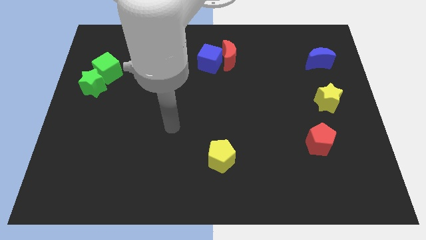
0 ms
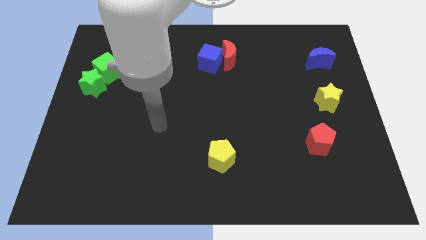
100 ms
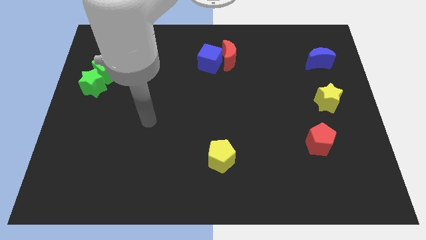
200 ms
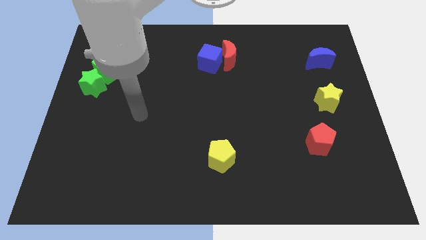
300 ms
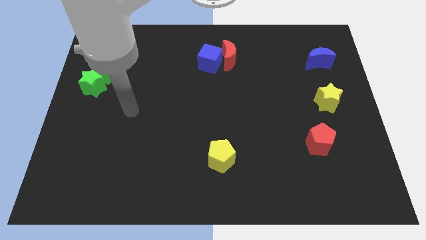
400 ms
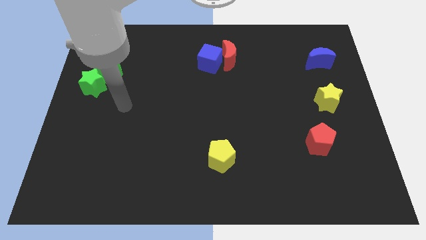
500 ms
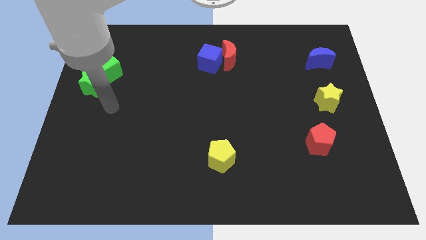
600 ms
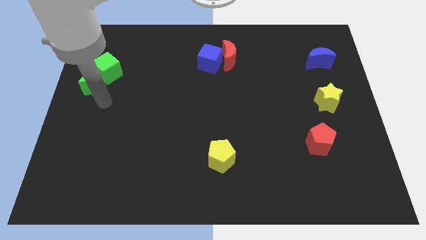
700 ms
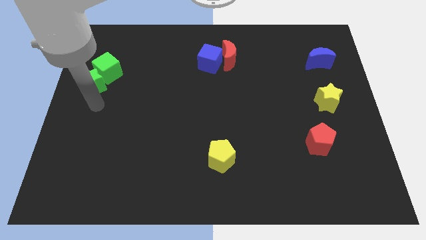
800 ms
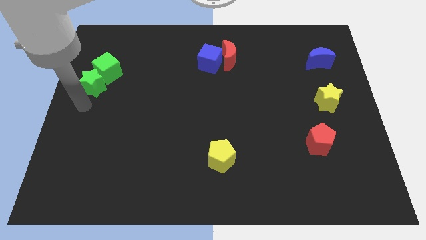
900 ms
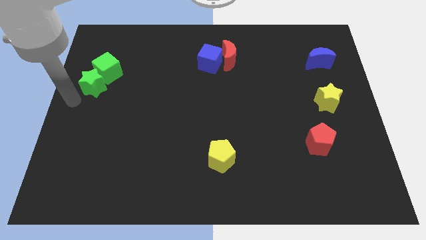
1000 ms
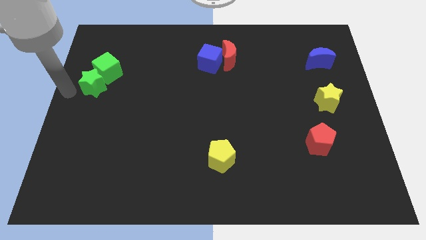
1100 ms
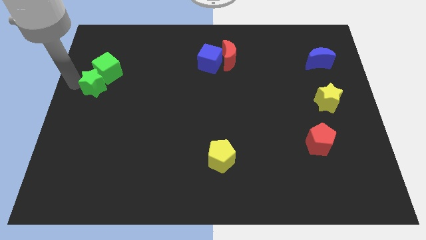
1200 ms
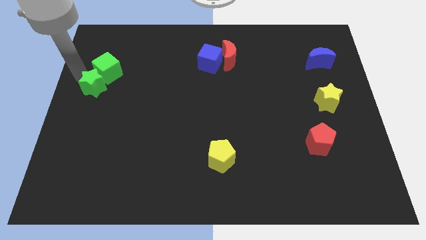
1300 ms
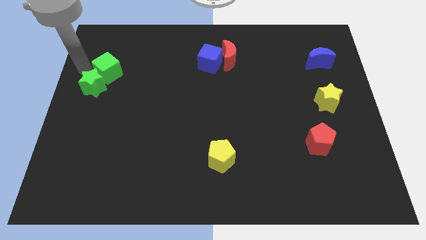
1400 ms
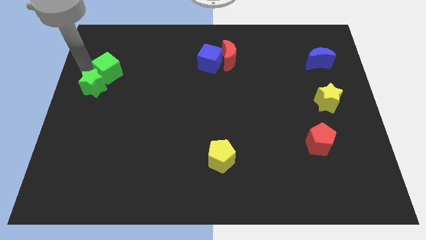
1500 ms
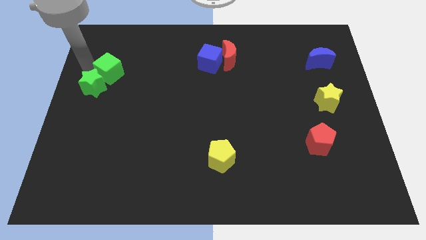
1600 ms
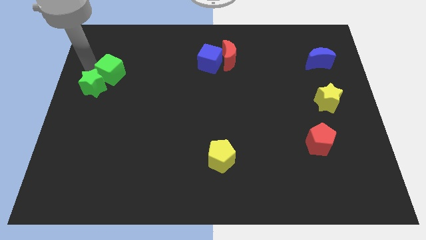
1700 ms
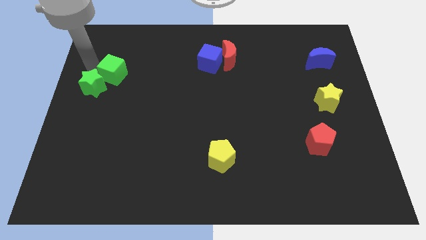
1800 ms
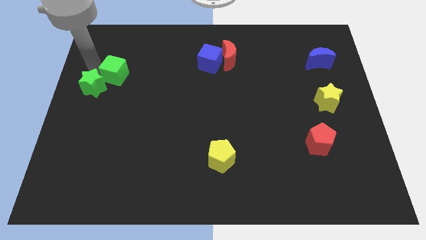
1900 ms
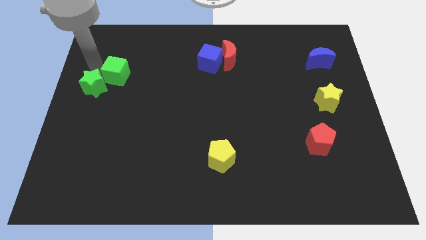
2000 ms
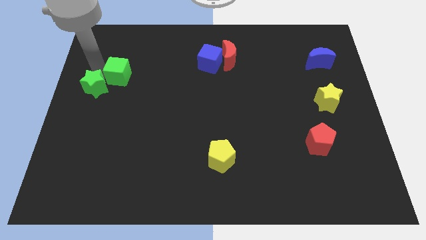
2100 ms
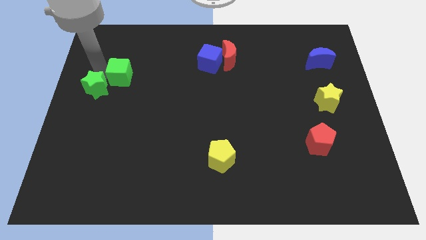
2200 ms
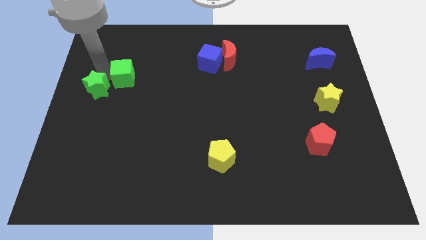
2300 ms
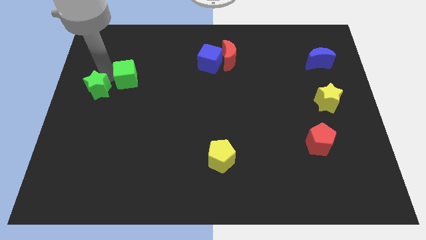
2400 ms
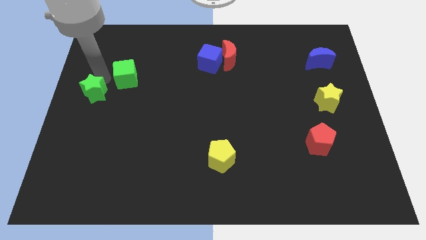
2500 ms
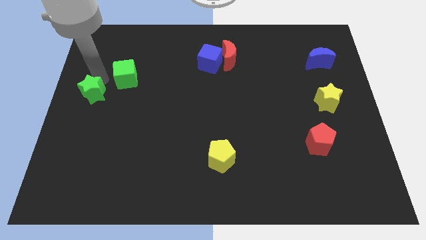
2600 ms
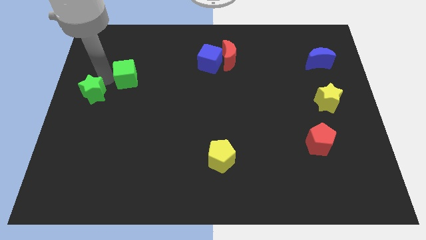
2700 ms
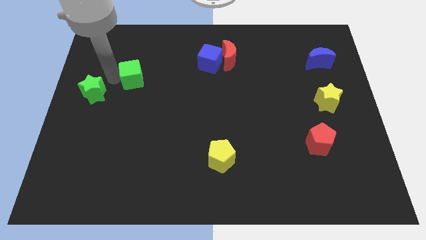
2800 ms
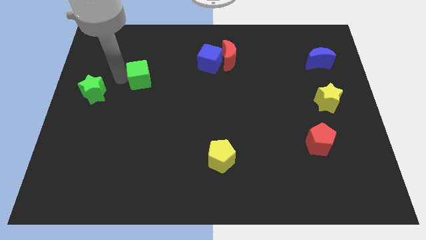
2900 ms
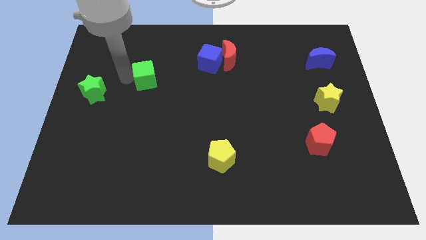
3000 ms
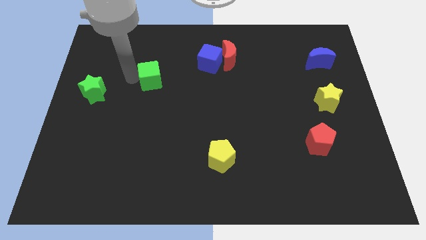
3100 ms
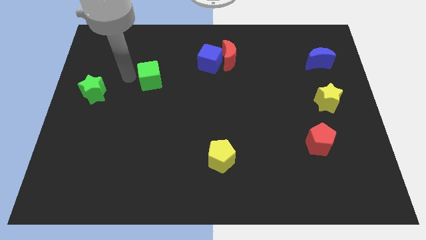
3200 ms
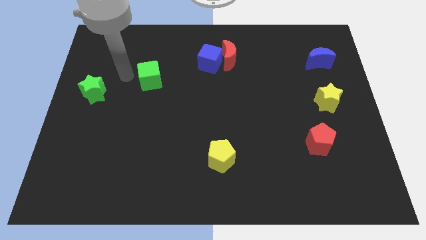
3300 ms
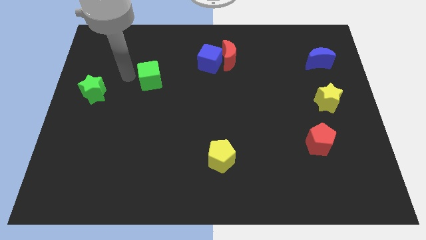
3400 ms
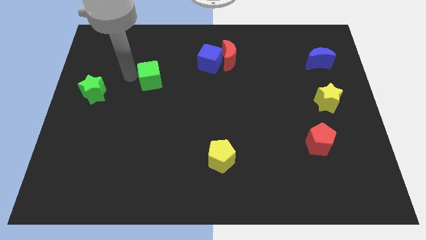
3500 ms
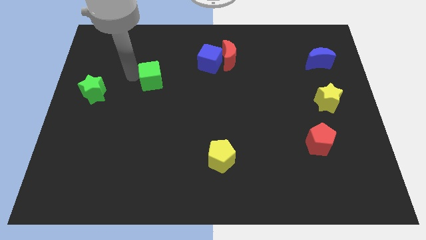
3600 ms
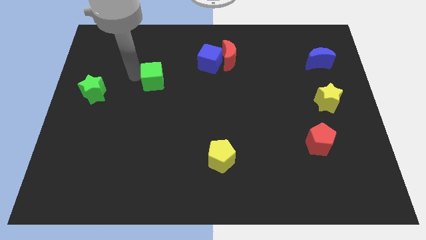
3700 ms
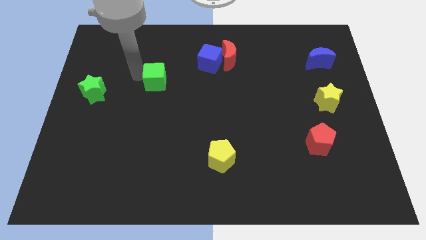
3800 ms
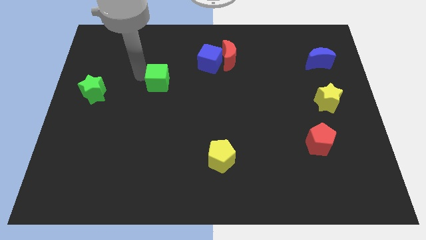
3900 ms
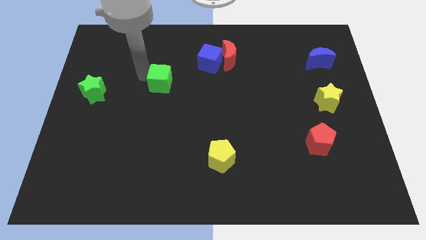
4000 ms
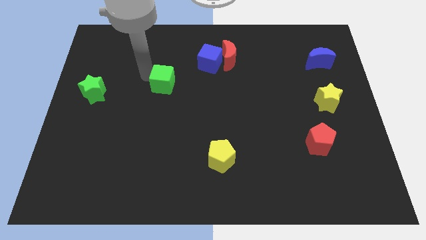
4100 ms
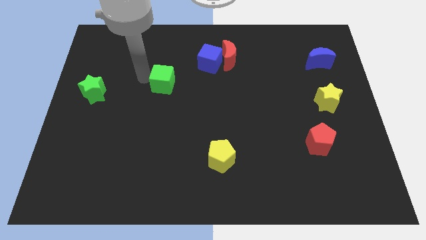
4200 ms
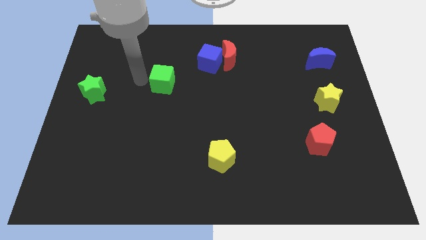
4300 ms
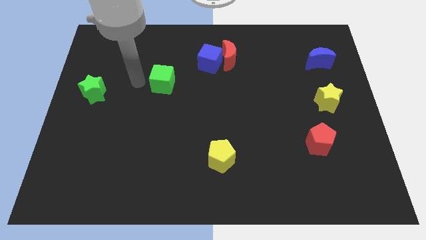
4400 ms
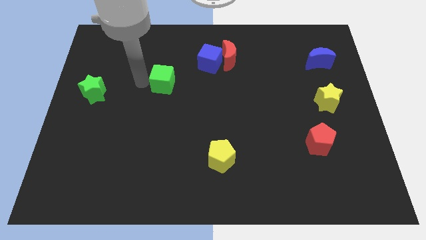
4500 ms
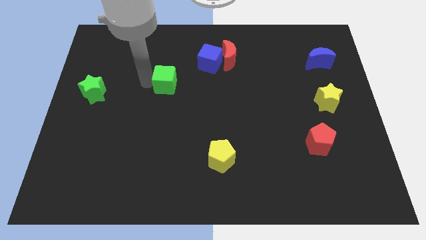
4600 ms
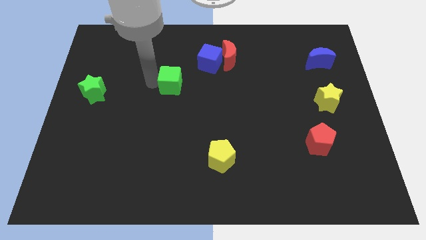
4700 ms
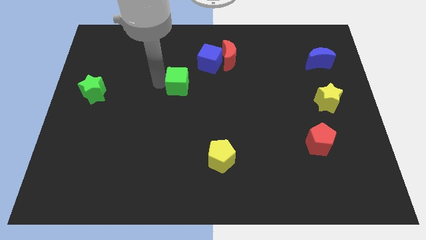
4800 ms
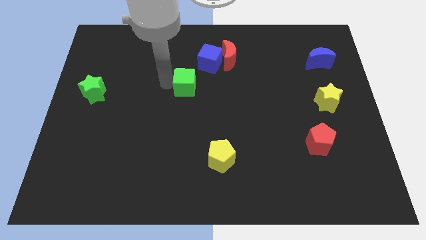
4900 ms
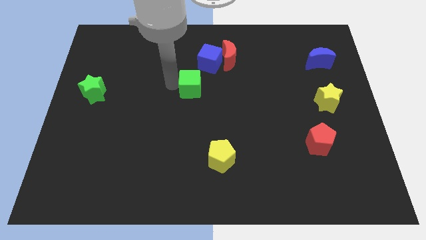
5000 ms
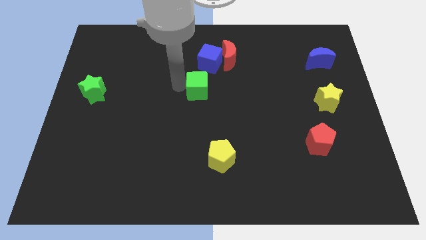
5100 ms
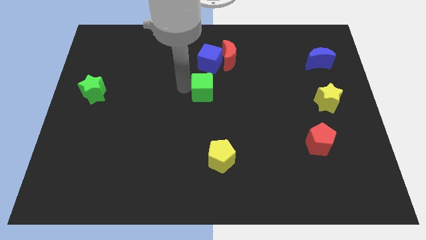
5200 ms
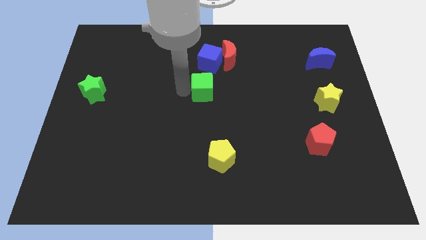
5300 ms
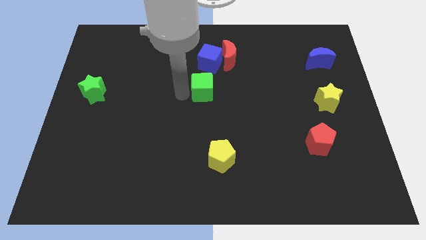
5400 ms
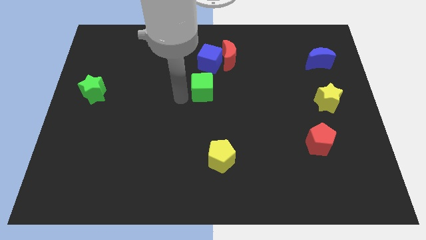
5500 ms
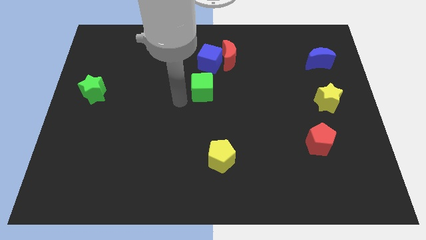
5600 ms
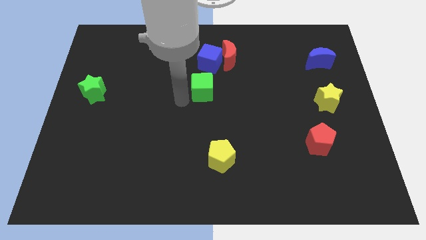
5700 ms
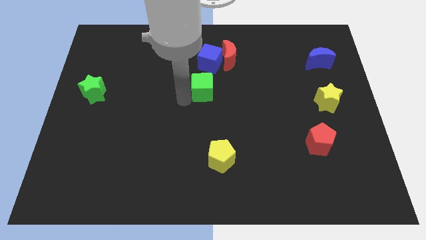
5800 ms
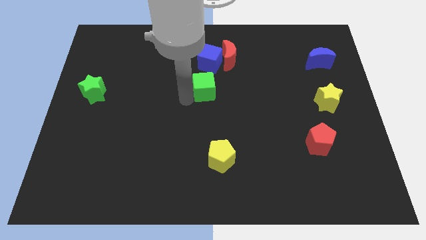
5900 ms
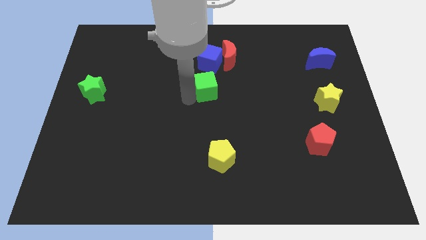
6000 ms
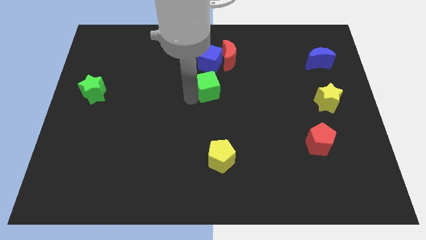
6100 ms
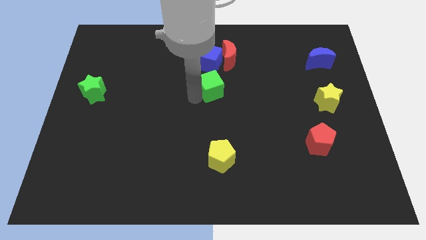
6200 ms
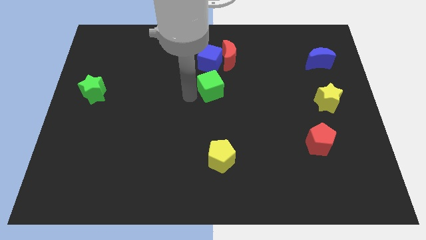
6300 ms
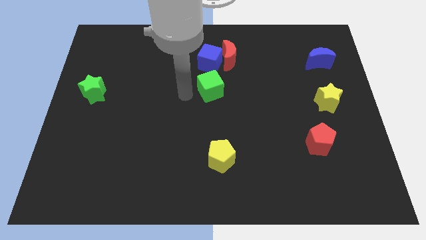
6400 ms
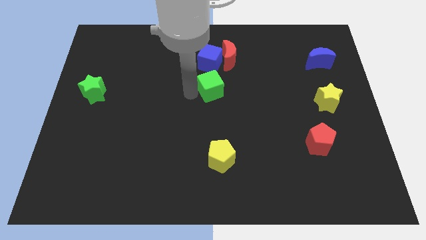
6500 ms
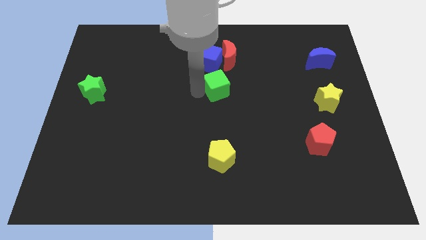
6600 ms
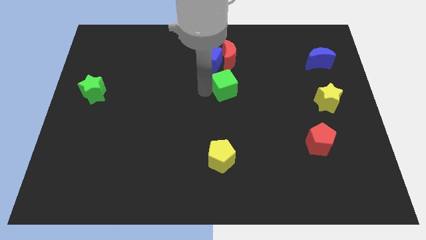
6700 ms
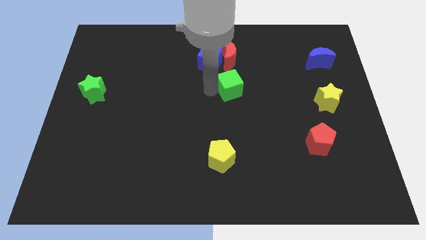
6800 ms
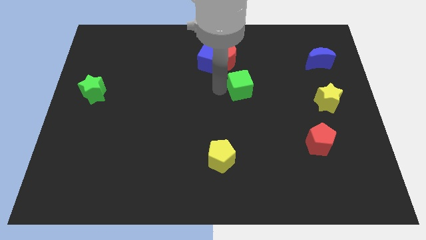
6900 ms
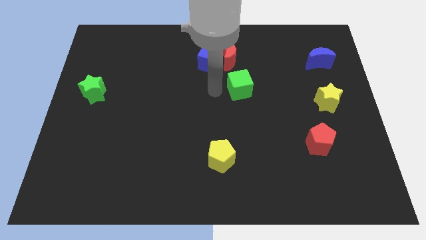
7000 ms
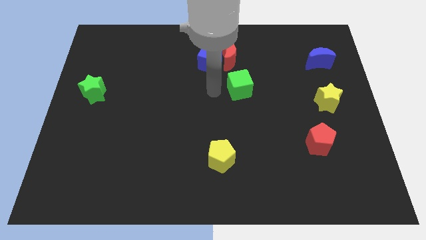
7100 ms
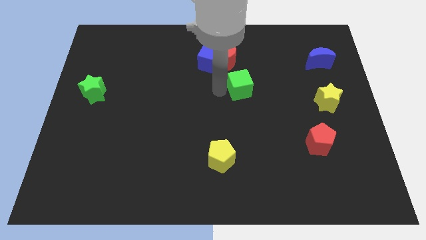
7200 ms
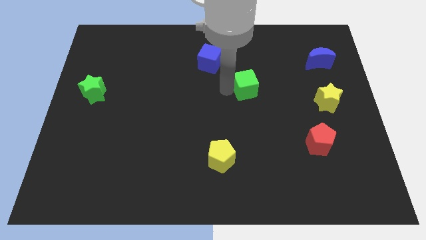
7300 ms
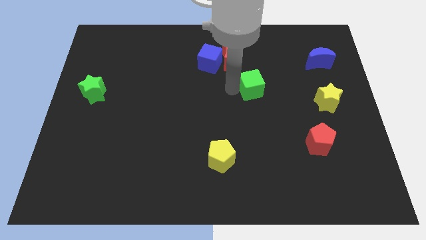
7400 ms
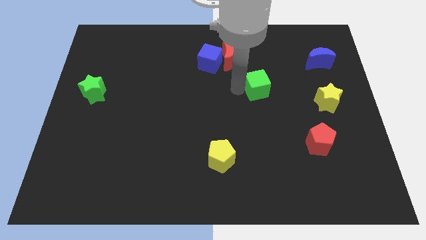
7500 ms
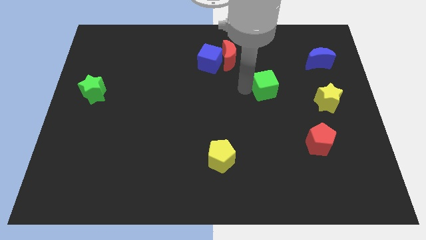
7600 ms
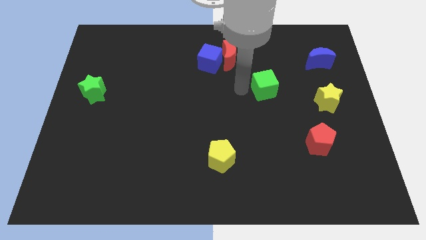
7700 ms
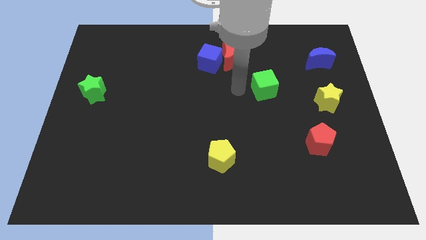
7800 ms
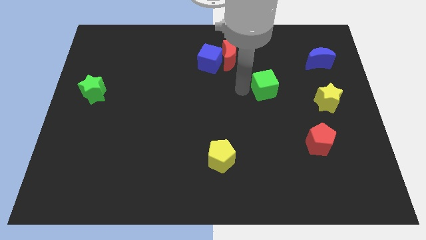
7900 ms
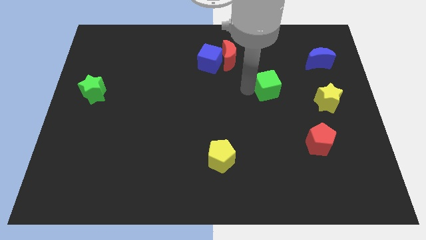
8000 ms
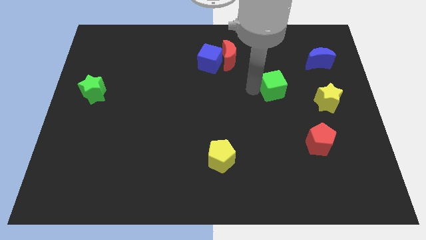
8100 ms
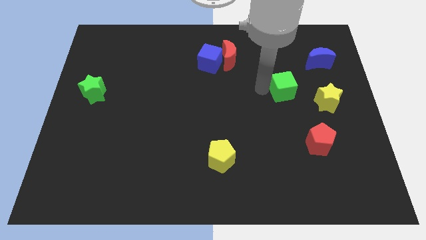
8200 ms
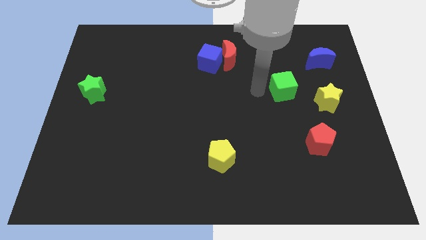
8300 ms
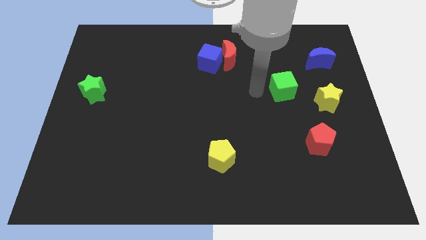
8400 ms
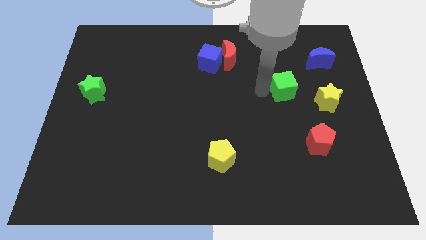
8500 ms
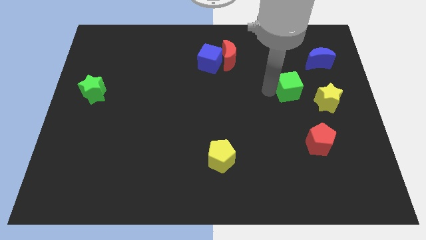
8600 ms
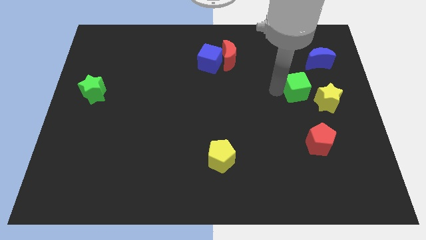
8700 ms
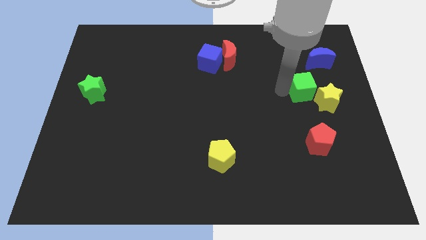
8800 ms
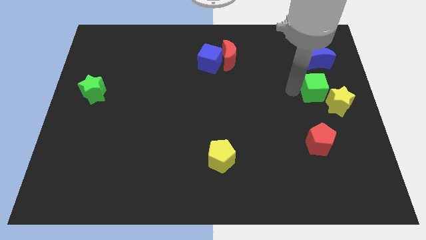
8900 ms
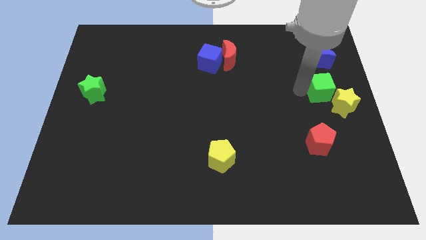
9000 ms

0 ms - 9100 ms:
push the green cube to the right side
